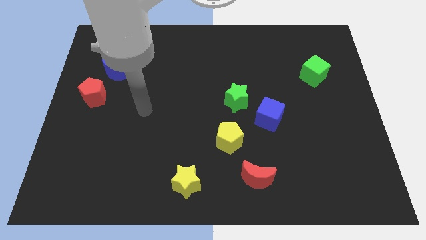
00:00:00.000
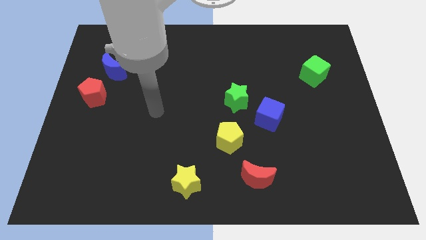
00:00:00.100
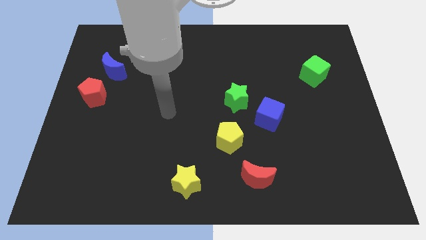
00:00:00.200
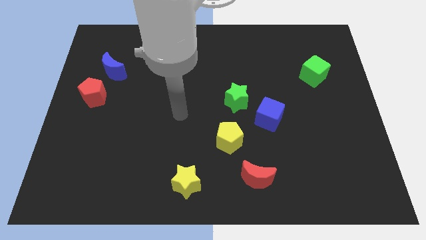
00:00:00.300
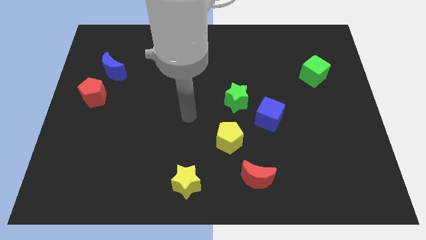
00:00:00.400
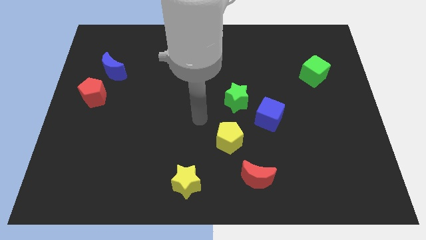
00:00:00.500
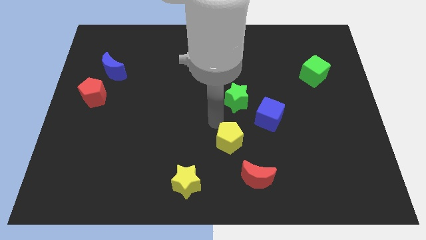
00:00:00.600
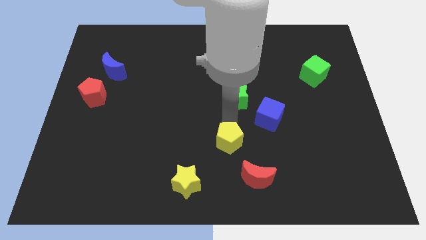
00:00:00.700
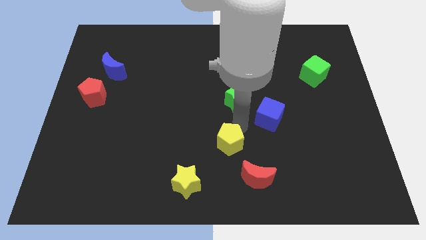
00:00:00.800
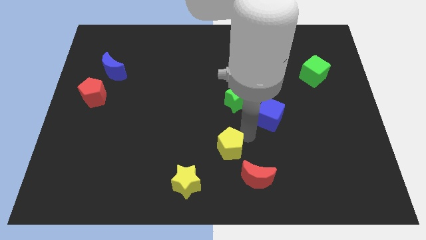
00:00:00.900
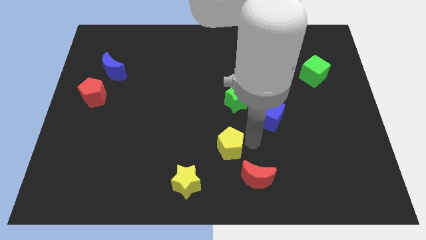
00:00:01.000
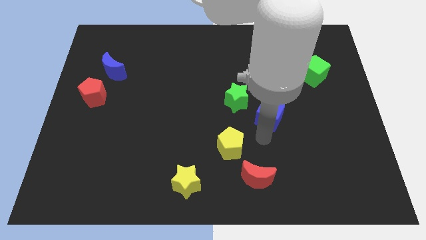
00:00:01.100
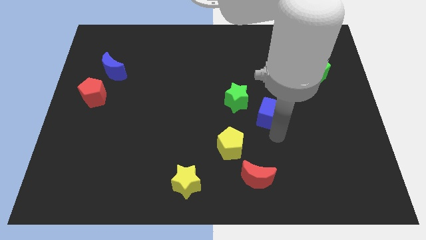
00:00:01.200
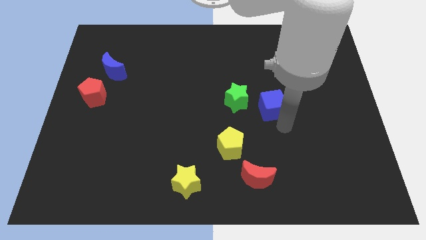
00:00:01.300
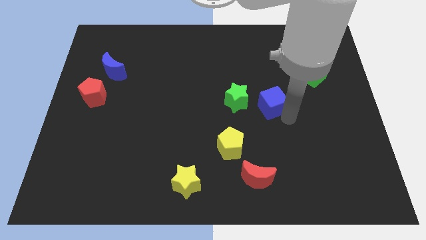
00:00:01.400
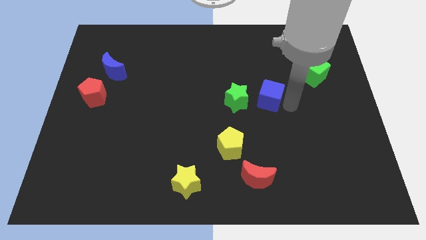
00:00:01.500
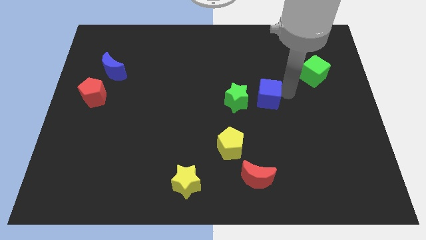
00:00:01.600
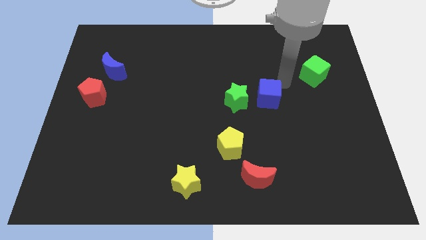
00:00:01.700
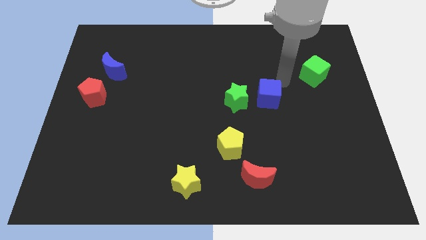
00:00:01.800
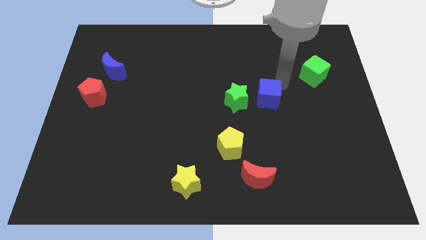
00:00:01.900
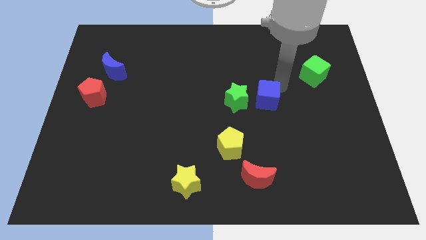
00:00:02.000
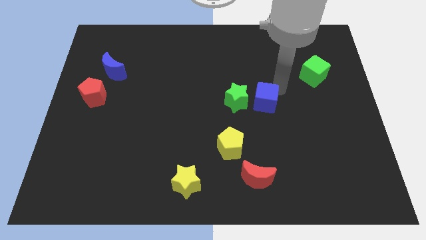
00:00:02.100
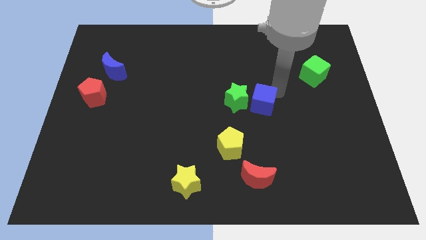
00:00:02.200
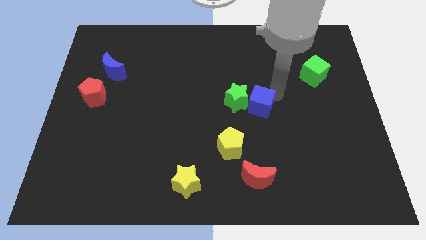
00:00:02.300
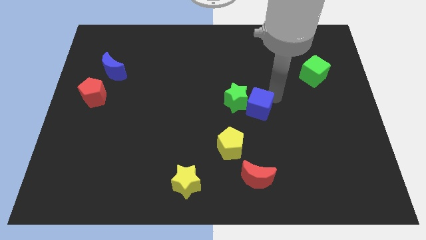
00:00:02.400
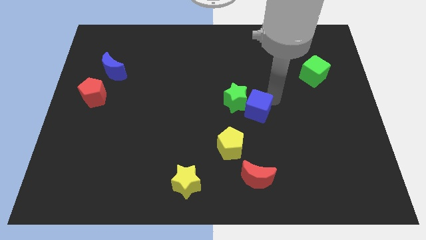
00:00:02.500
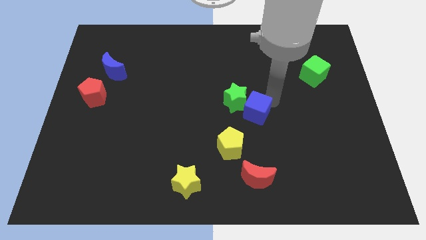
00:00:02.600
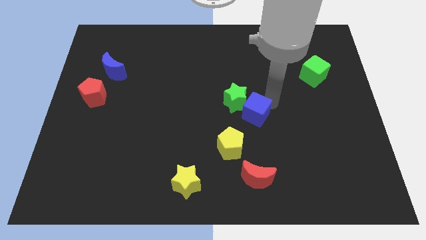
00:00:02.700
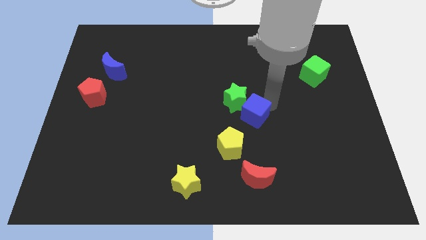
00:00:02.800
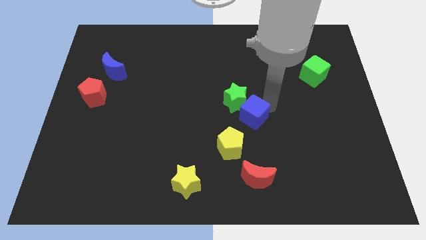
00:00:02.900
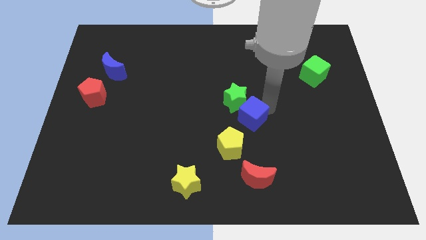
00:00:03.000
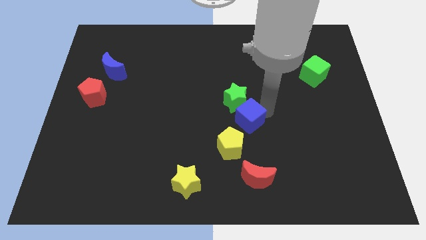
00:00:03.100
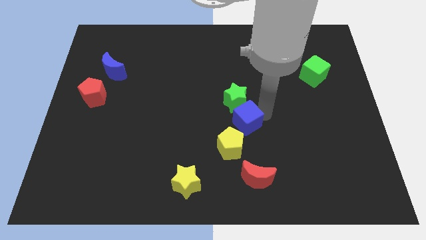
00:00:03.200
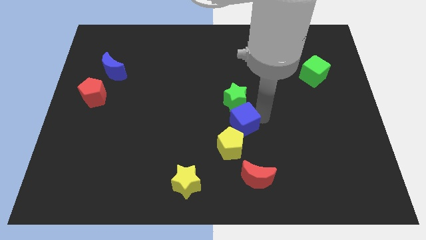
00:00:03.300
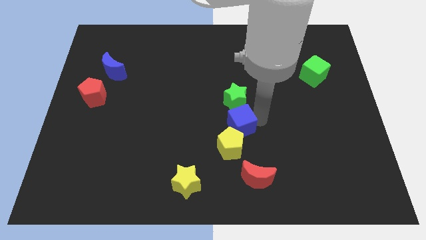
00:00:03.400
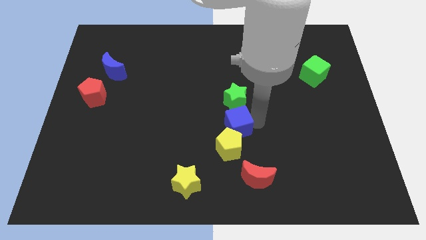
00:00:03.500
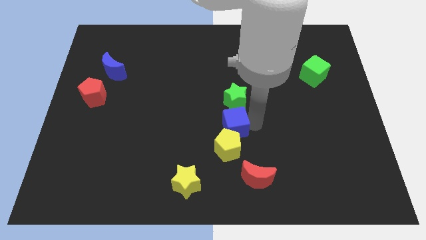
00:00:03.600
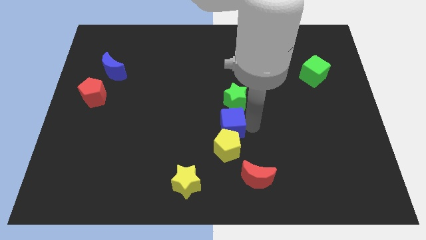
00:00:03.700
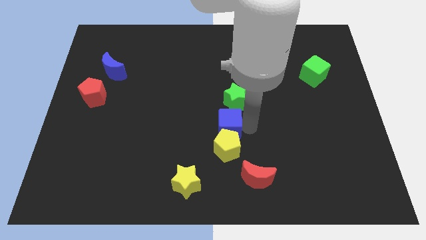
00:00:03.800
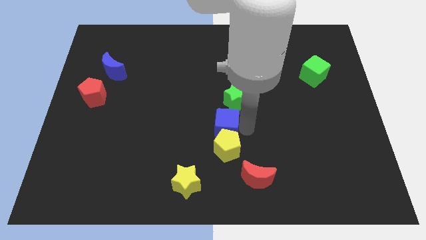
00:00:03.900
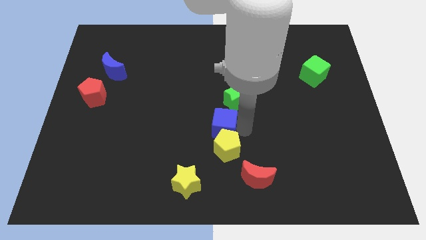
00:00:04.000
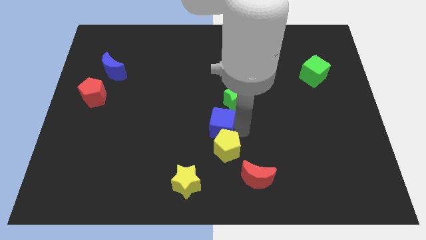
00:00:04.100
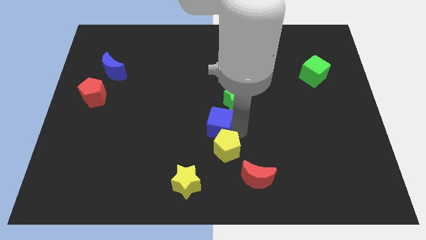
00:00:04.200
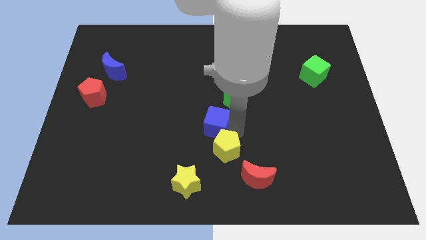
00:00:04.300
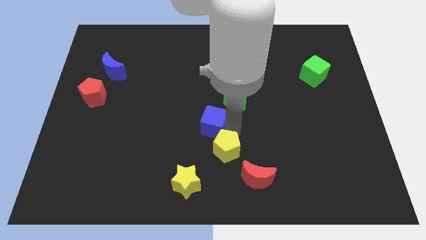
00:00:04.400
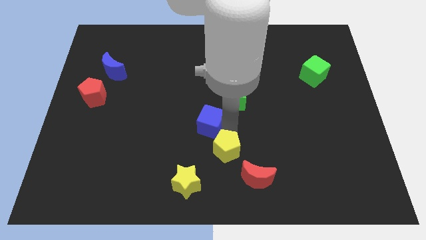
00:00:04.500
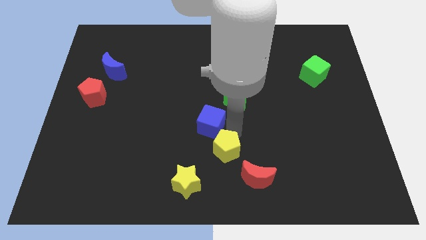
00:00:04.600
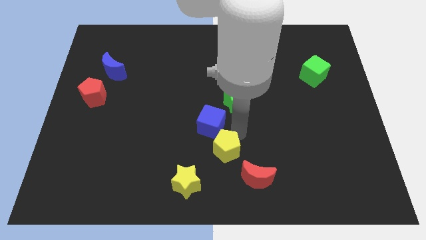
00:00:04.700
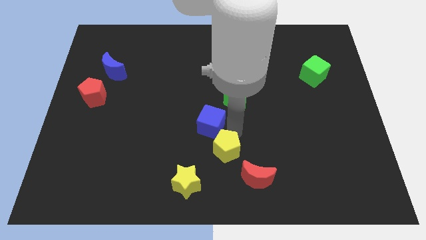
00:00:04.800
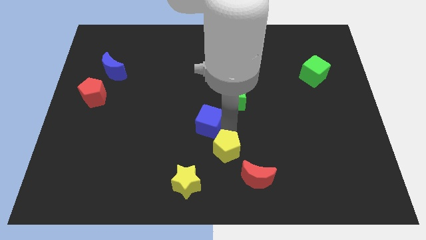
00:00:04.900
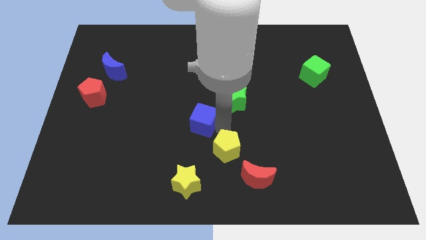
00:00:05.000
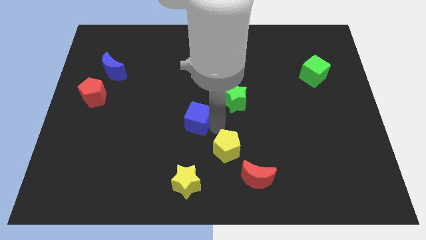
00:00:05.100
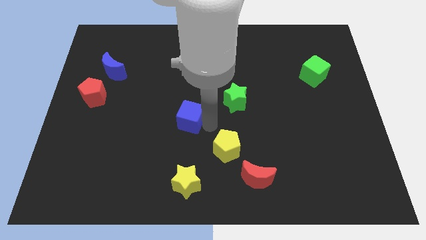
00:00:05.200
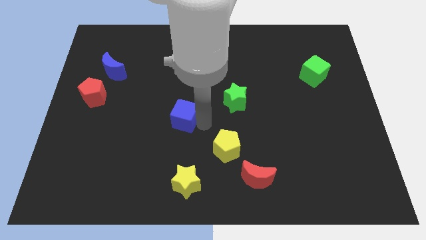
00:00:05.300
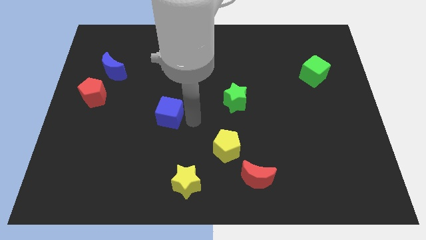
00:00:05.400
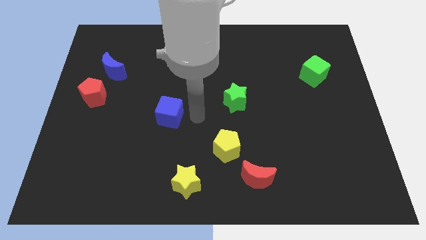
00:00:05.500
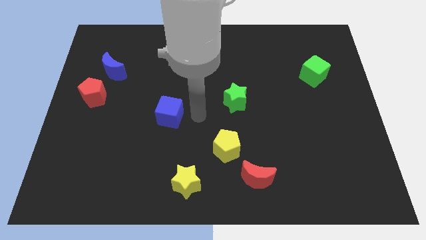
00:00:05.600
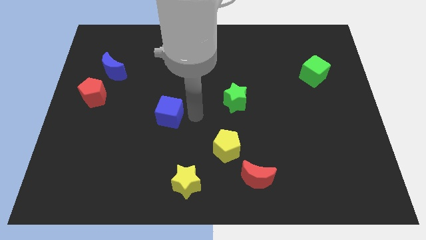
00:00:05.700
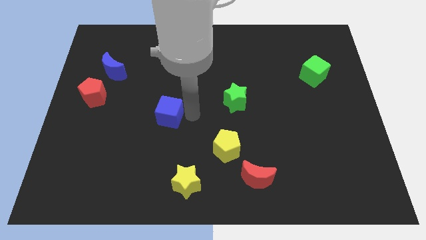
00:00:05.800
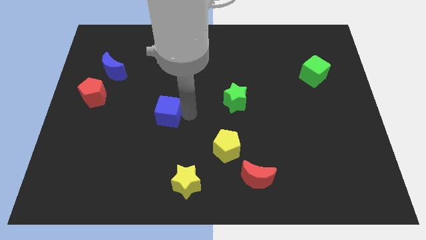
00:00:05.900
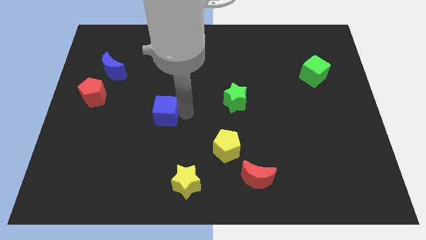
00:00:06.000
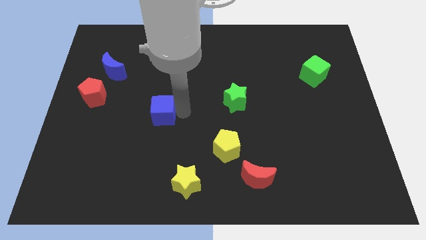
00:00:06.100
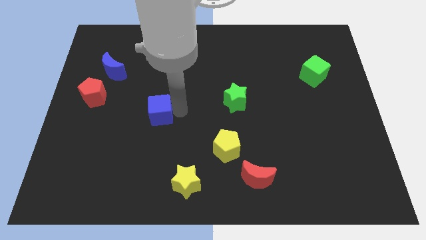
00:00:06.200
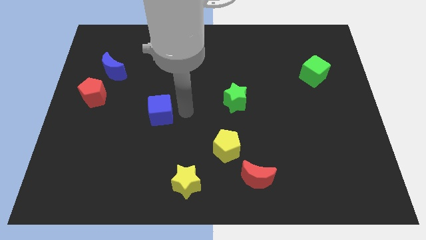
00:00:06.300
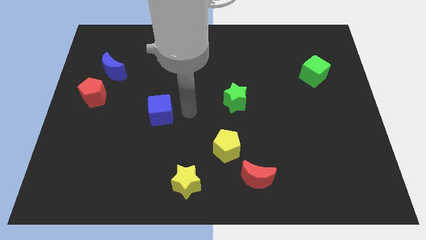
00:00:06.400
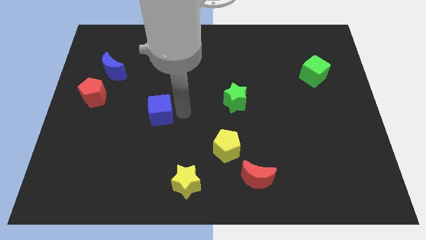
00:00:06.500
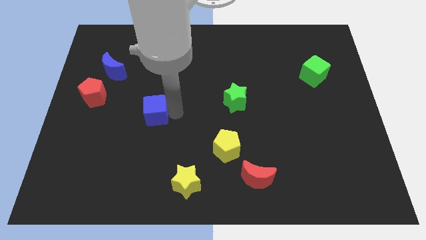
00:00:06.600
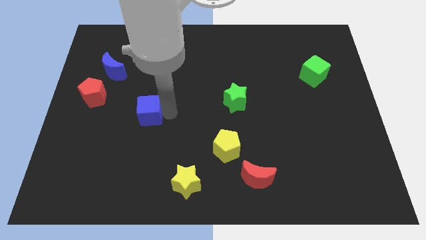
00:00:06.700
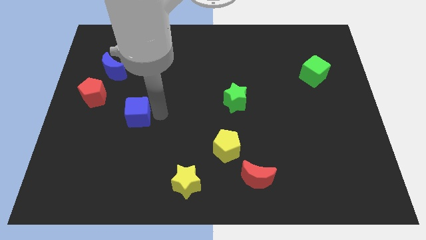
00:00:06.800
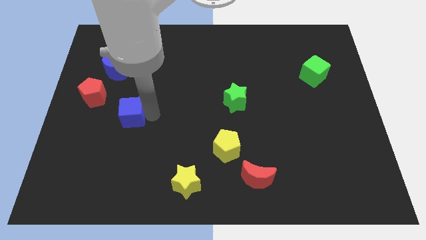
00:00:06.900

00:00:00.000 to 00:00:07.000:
push the blue cube diagonally down and to the right of the red pentagon
